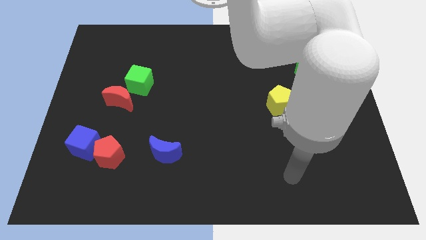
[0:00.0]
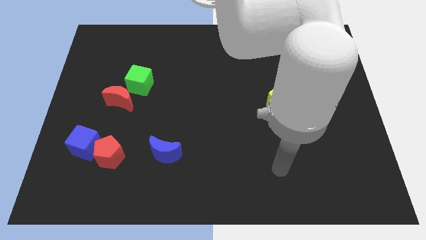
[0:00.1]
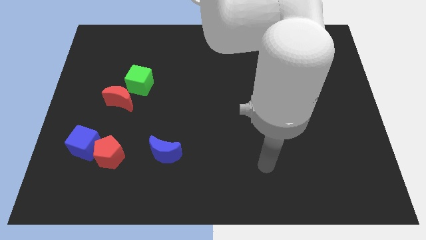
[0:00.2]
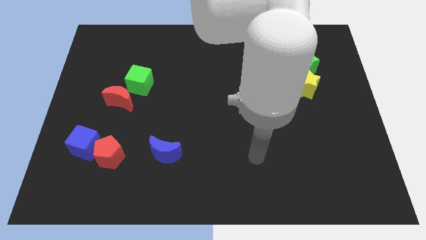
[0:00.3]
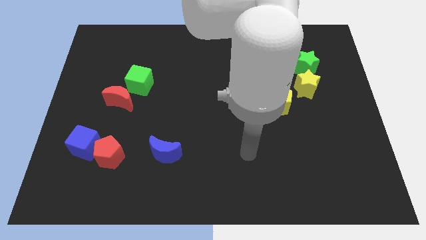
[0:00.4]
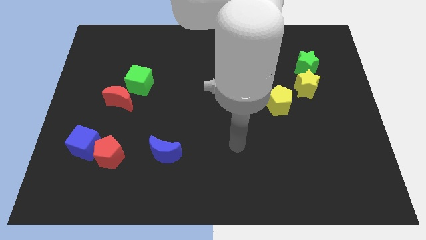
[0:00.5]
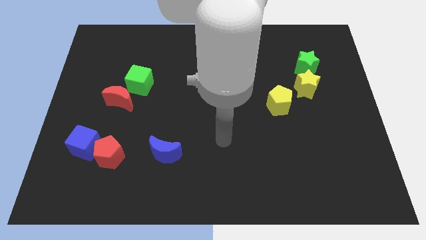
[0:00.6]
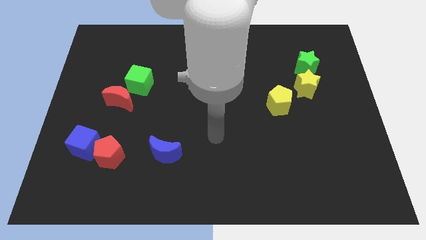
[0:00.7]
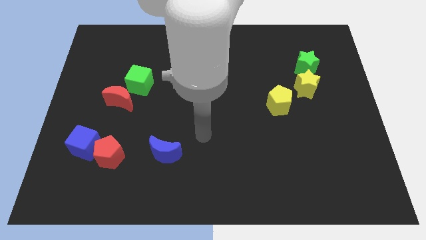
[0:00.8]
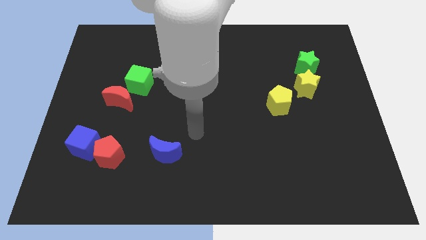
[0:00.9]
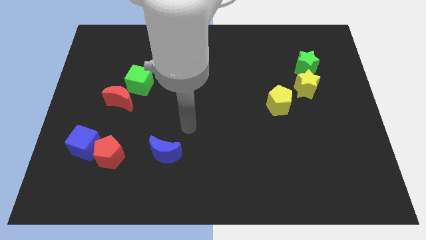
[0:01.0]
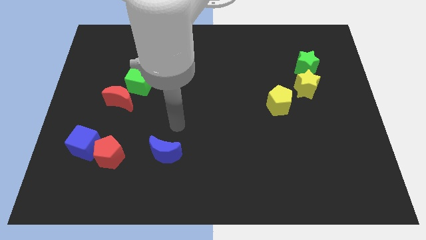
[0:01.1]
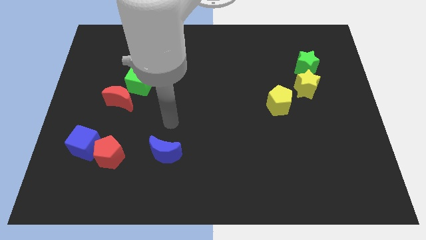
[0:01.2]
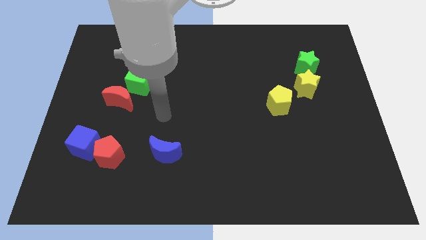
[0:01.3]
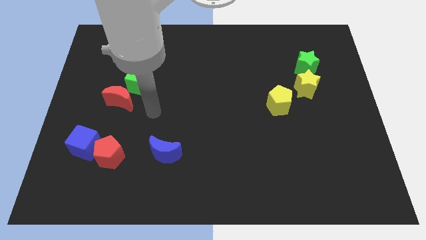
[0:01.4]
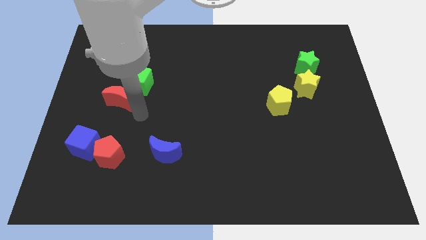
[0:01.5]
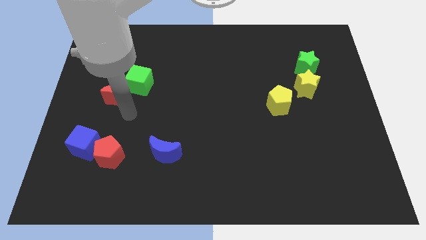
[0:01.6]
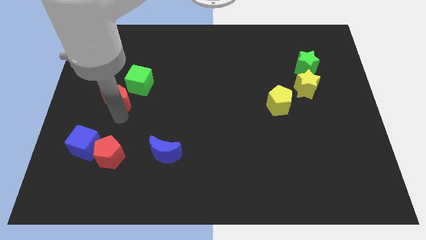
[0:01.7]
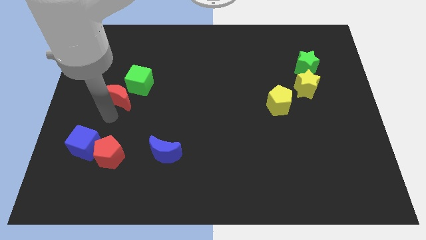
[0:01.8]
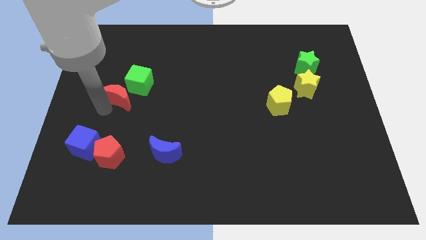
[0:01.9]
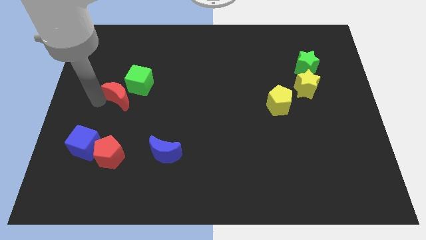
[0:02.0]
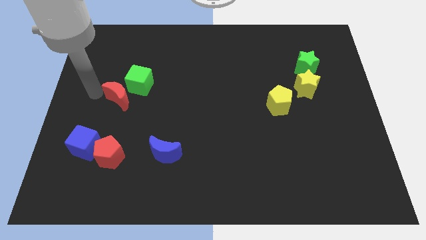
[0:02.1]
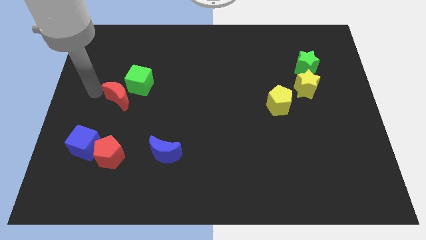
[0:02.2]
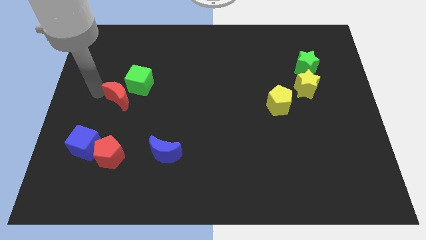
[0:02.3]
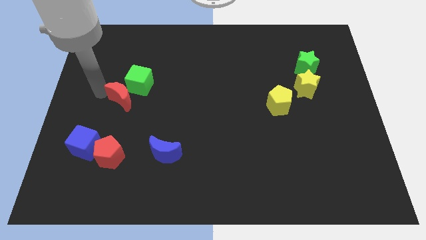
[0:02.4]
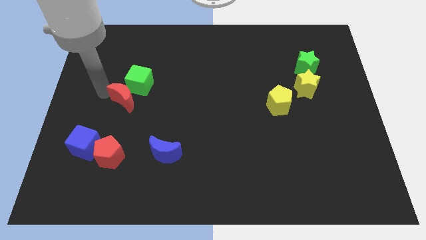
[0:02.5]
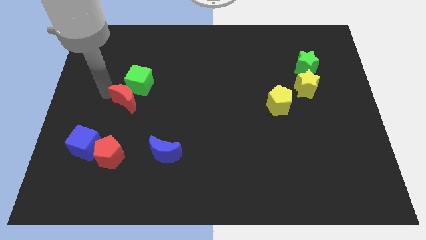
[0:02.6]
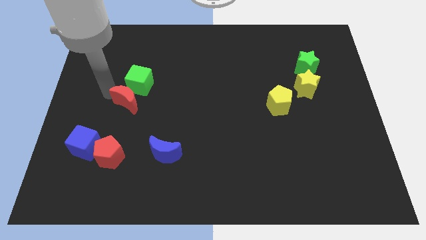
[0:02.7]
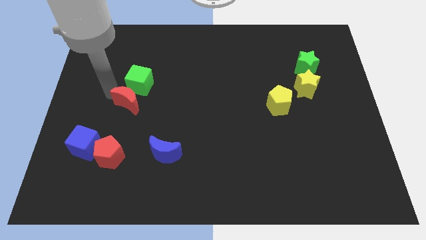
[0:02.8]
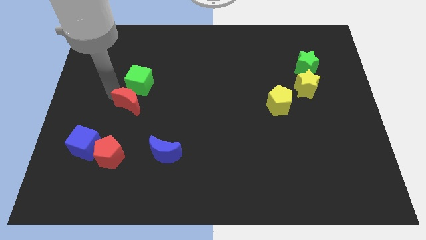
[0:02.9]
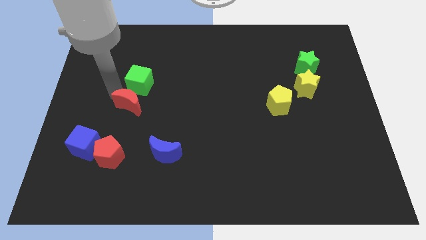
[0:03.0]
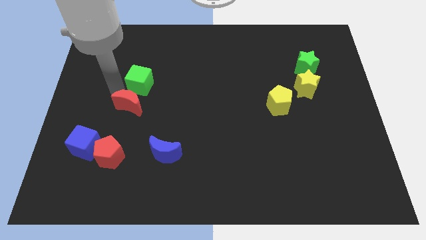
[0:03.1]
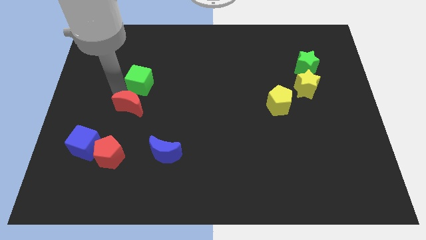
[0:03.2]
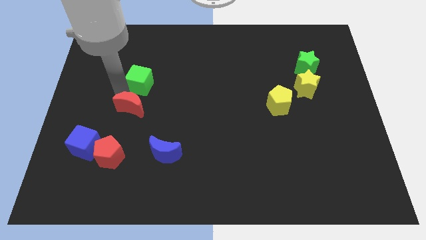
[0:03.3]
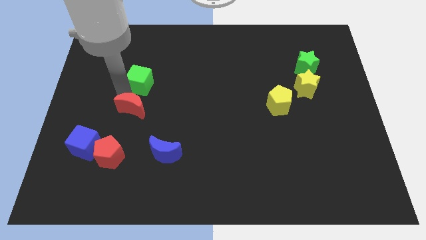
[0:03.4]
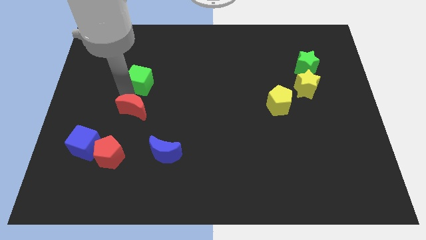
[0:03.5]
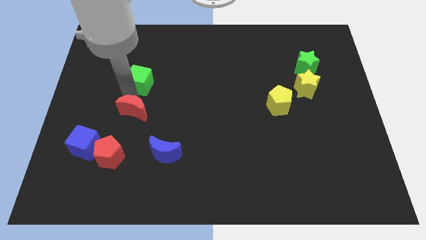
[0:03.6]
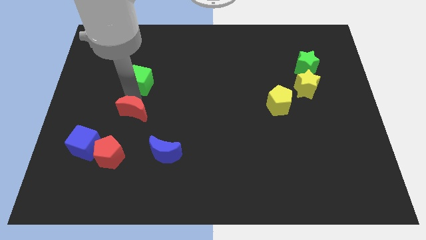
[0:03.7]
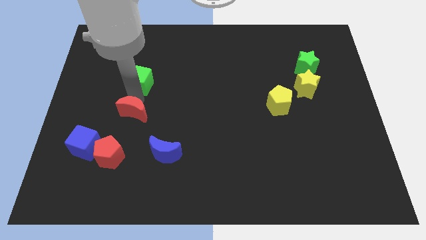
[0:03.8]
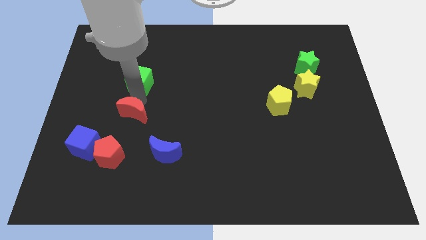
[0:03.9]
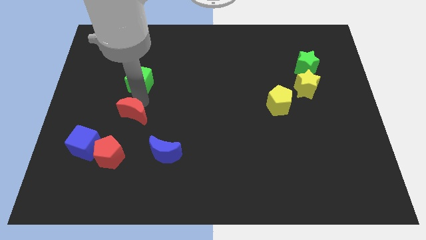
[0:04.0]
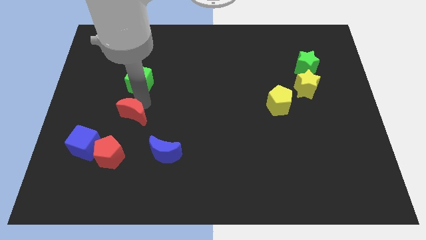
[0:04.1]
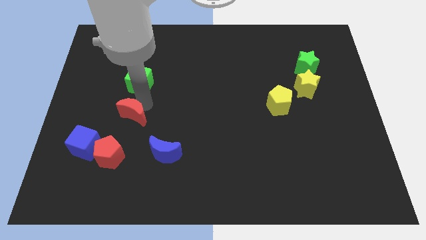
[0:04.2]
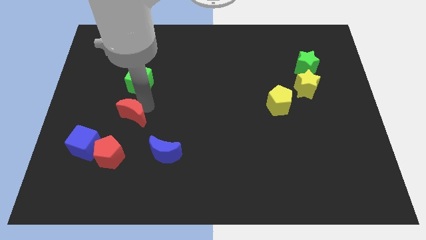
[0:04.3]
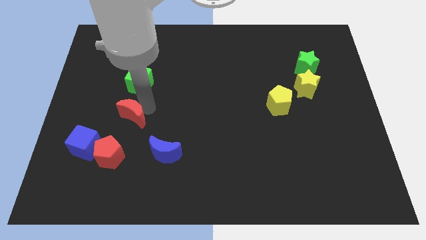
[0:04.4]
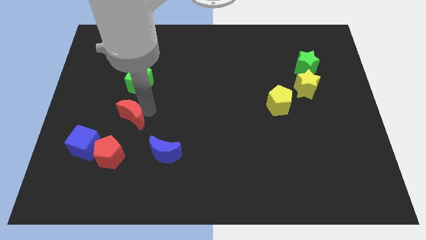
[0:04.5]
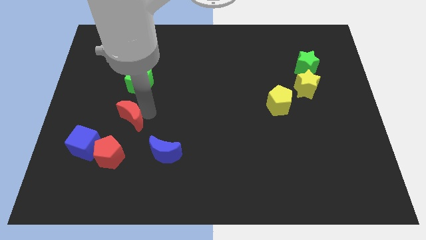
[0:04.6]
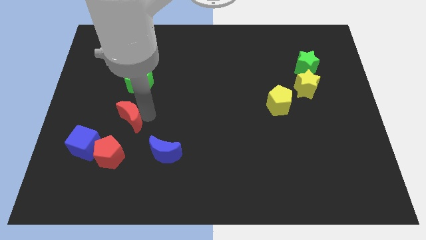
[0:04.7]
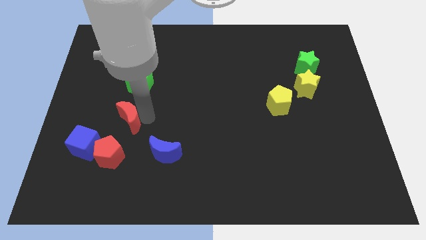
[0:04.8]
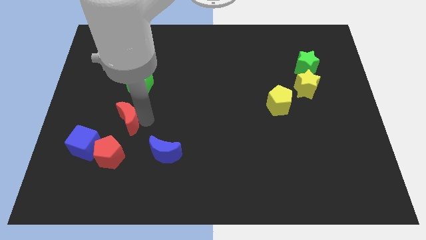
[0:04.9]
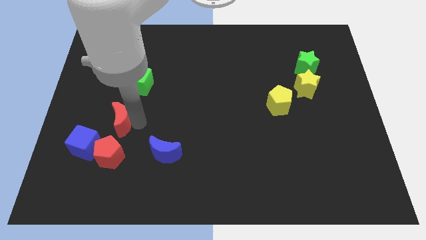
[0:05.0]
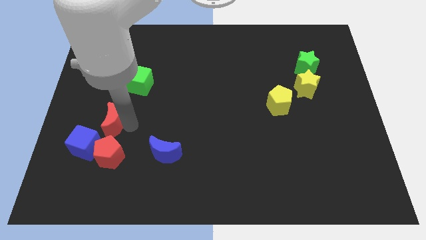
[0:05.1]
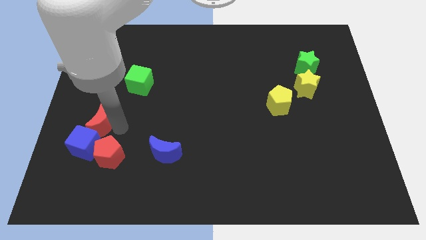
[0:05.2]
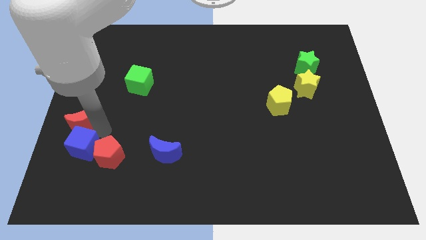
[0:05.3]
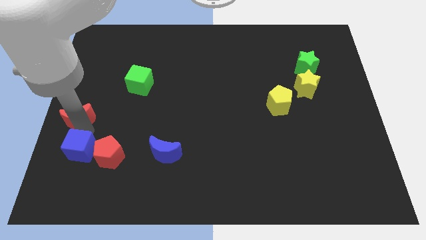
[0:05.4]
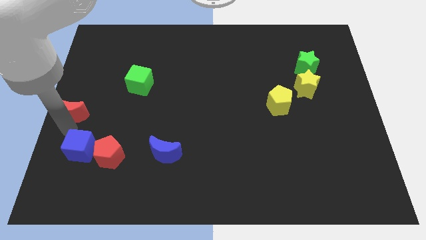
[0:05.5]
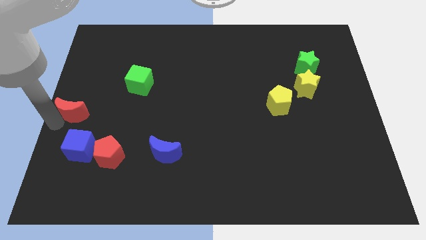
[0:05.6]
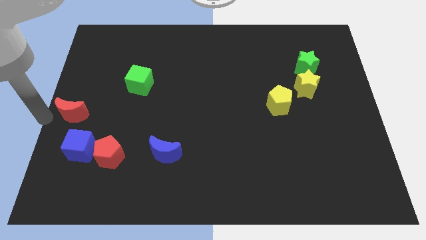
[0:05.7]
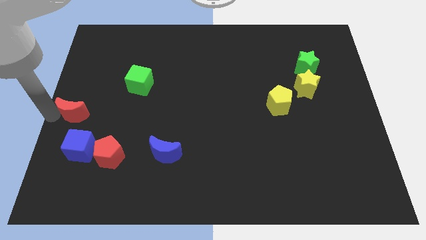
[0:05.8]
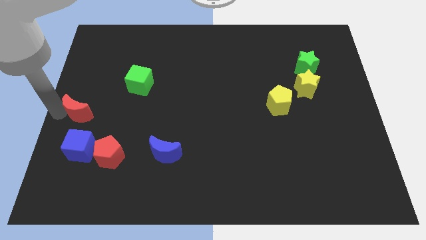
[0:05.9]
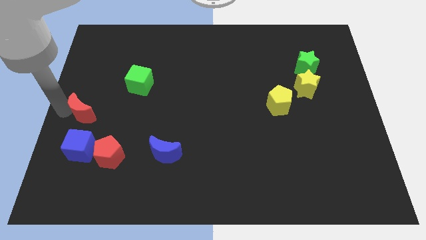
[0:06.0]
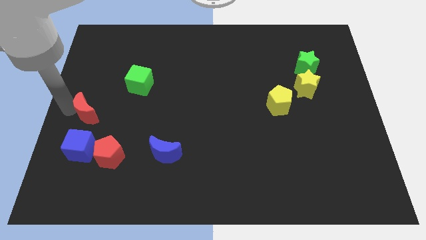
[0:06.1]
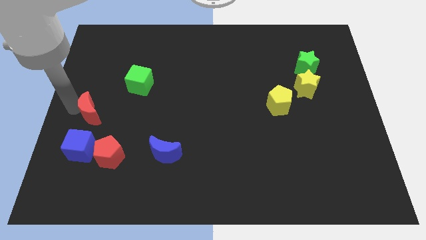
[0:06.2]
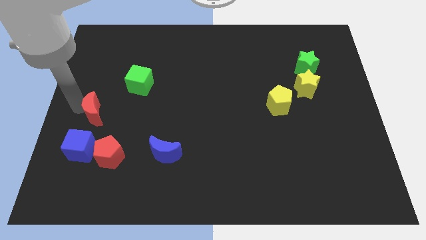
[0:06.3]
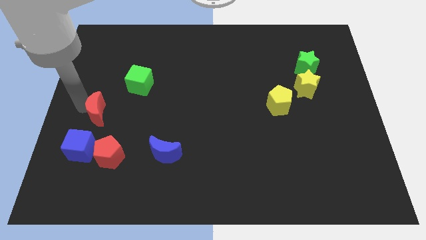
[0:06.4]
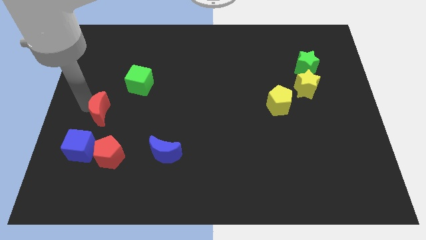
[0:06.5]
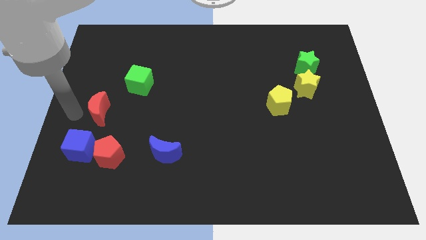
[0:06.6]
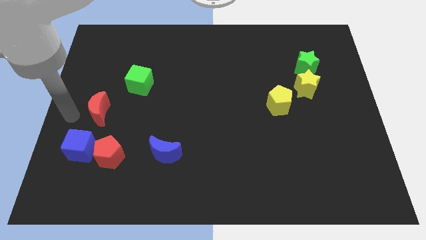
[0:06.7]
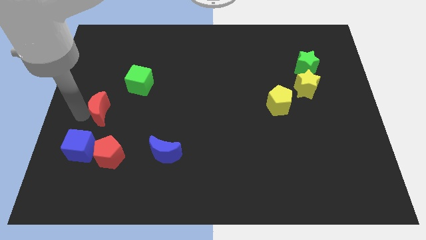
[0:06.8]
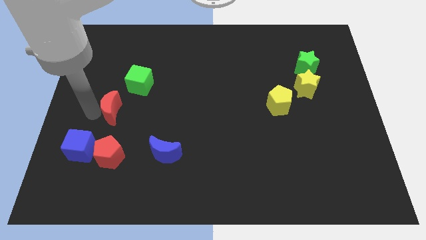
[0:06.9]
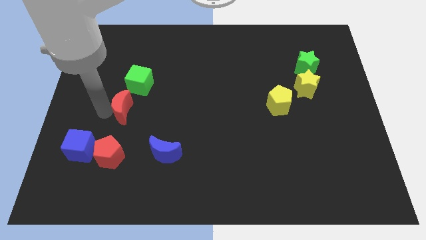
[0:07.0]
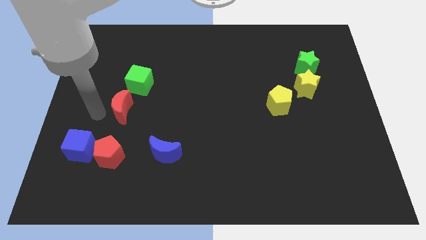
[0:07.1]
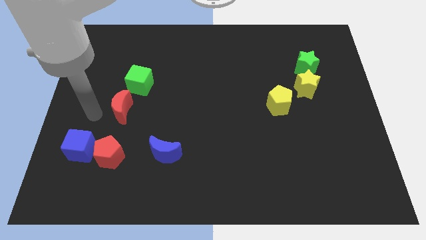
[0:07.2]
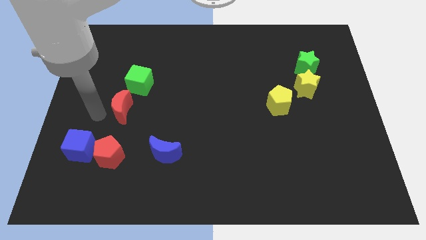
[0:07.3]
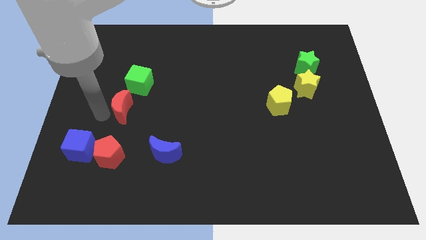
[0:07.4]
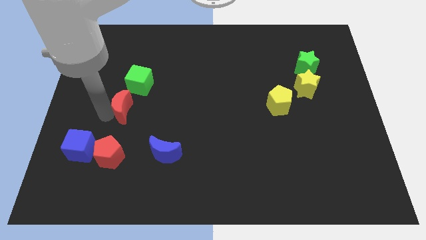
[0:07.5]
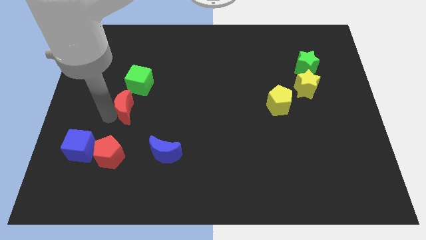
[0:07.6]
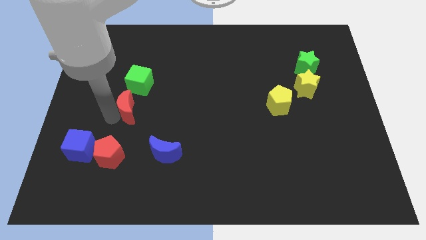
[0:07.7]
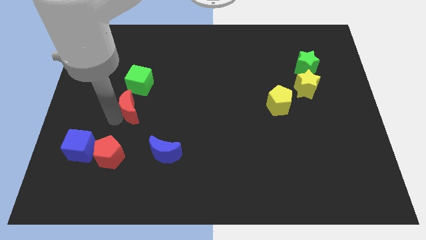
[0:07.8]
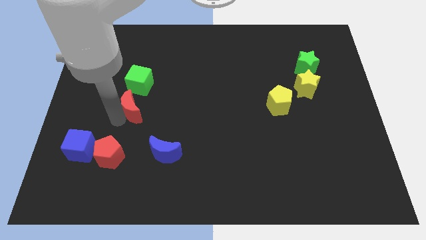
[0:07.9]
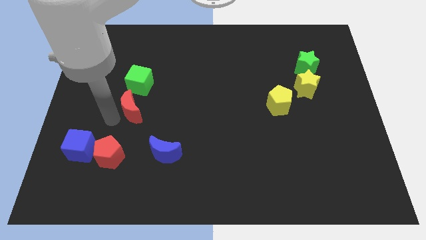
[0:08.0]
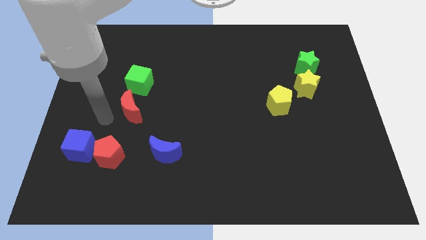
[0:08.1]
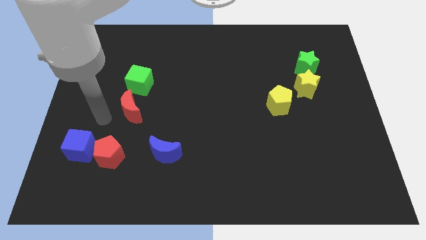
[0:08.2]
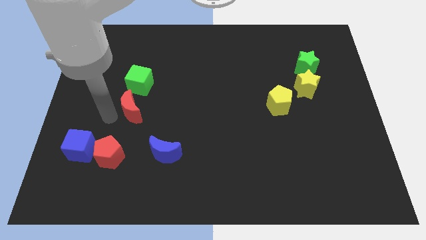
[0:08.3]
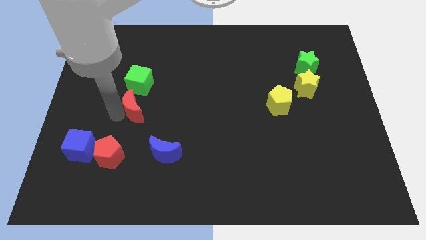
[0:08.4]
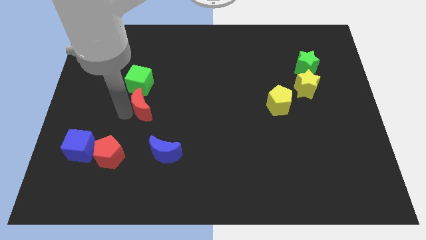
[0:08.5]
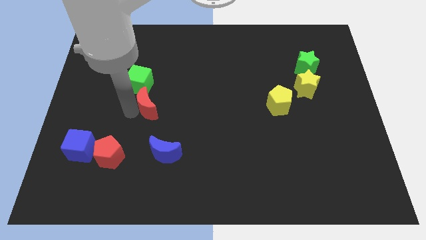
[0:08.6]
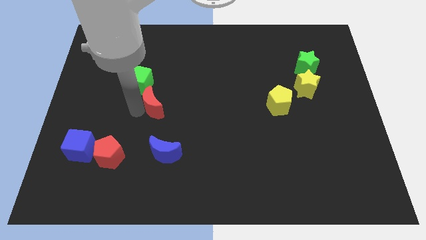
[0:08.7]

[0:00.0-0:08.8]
slide the red moon right a little bit
